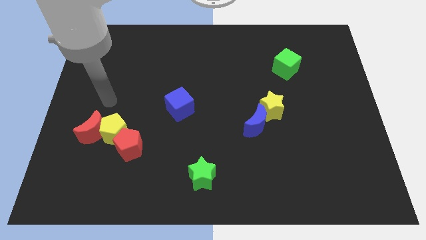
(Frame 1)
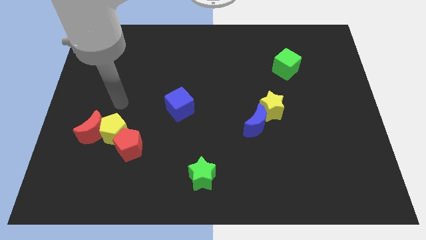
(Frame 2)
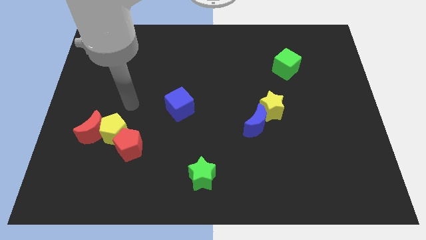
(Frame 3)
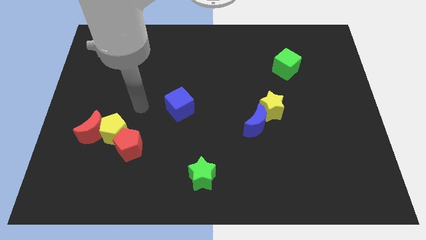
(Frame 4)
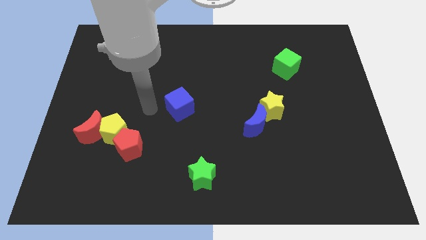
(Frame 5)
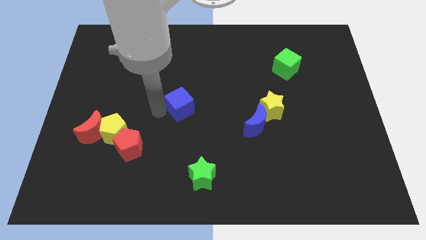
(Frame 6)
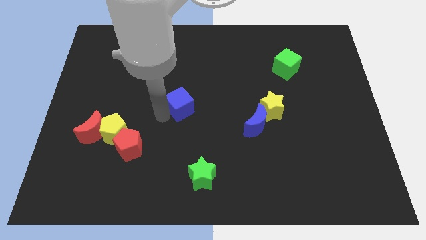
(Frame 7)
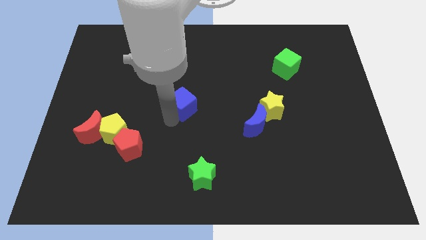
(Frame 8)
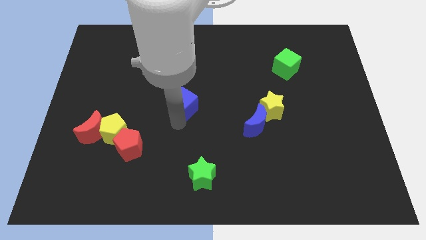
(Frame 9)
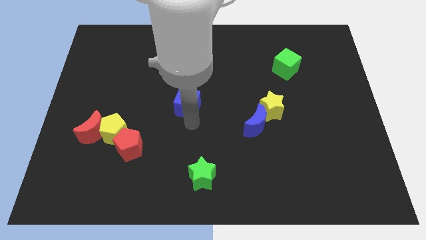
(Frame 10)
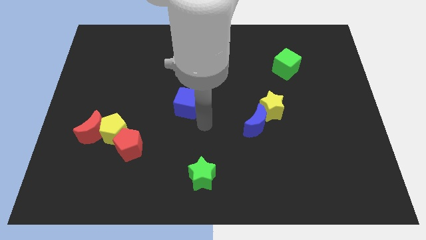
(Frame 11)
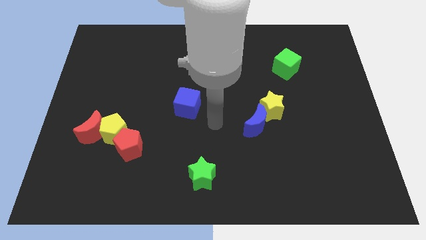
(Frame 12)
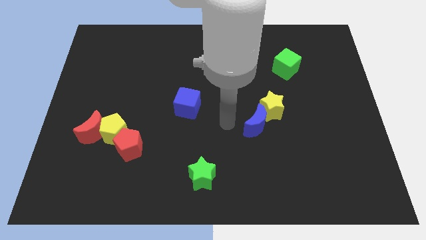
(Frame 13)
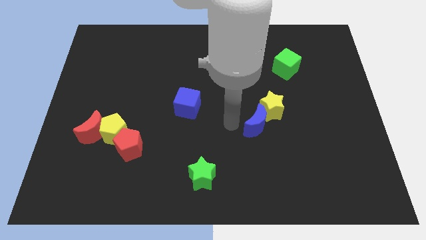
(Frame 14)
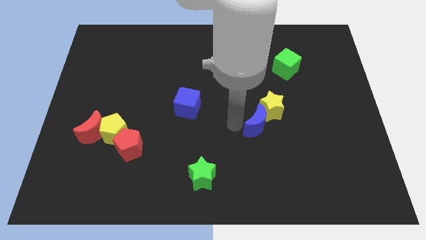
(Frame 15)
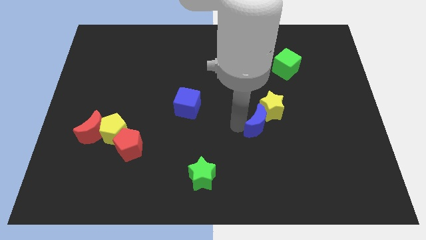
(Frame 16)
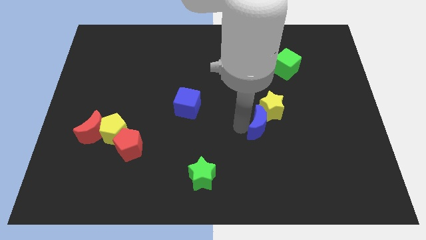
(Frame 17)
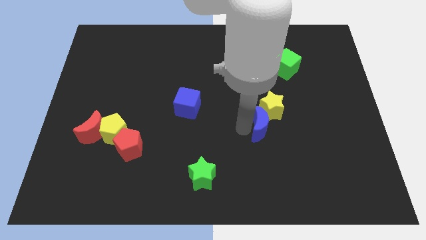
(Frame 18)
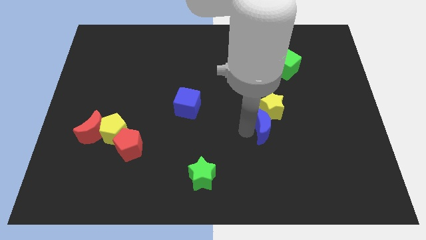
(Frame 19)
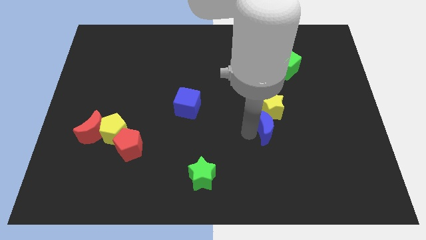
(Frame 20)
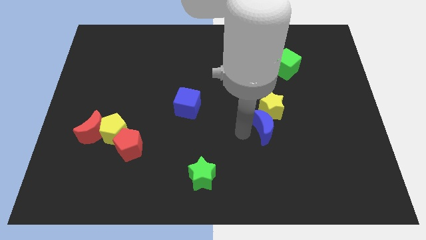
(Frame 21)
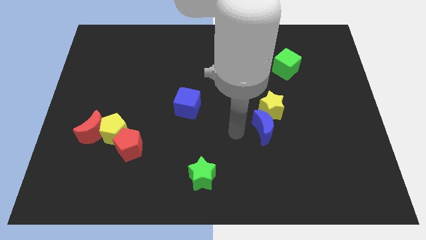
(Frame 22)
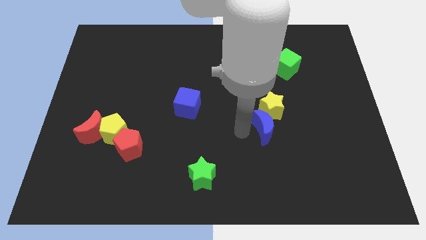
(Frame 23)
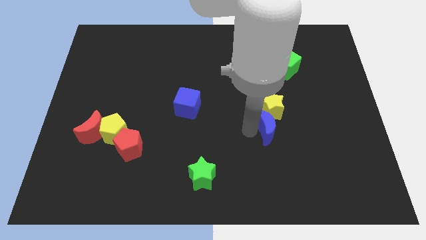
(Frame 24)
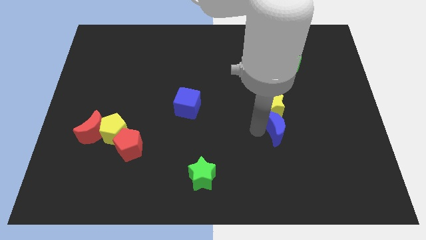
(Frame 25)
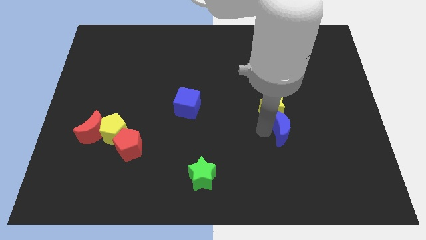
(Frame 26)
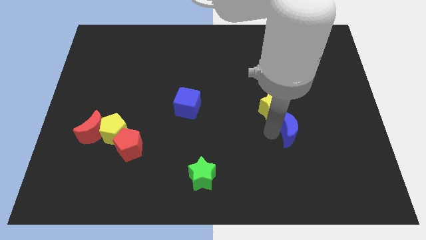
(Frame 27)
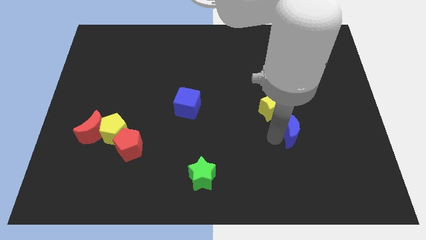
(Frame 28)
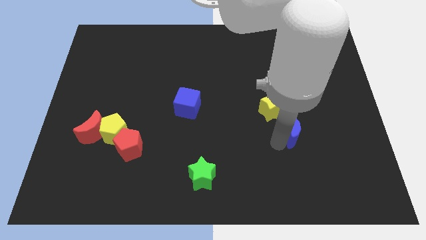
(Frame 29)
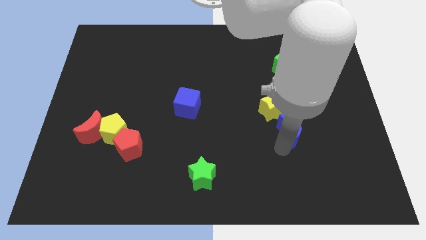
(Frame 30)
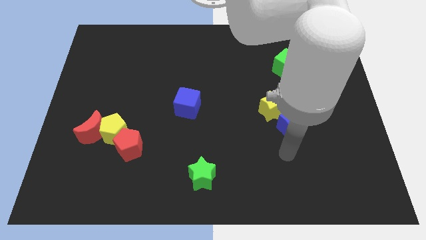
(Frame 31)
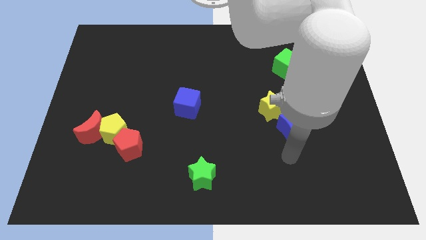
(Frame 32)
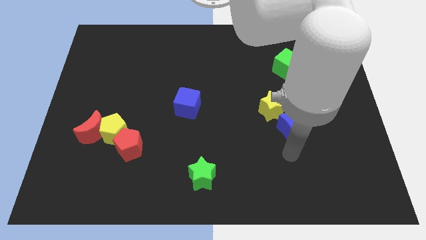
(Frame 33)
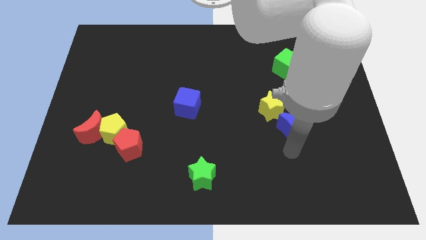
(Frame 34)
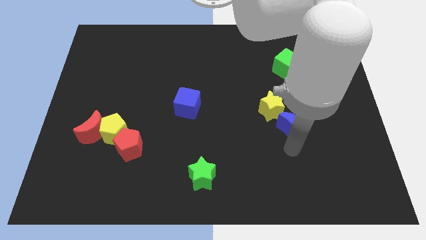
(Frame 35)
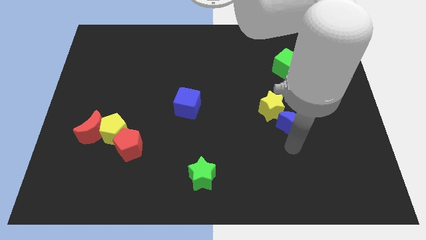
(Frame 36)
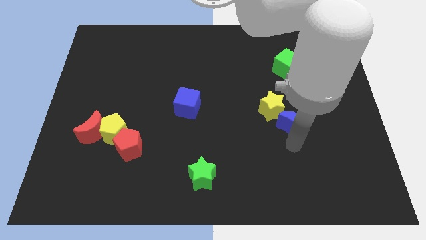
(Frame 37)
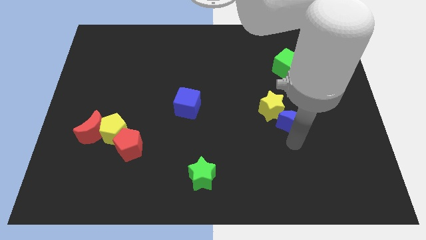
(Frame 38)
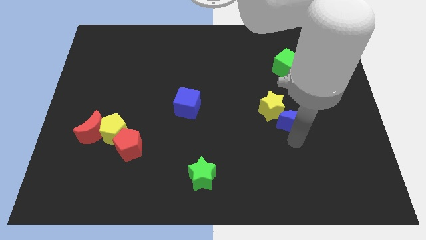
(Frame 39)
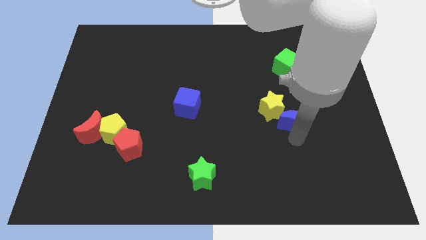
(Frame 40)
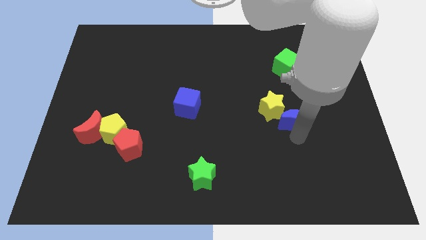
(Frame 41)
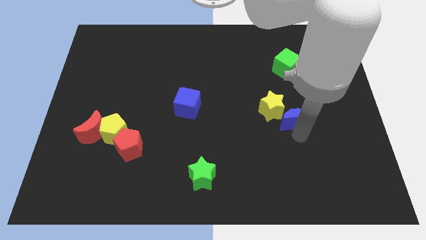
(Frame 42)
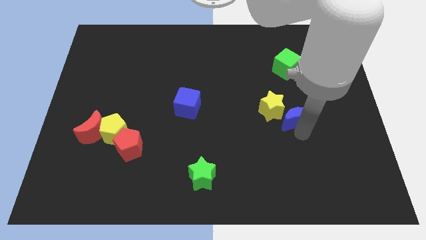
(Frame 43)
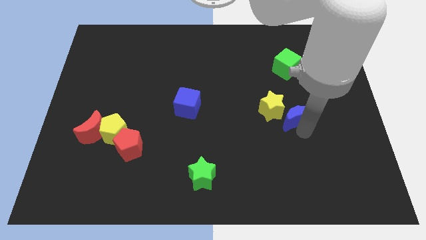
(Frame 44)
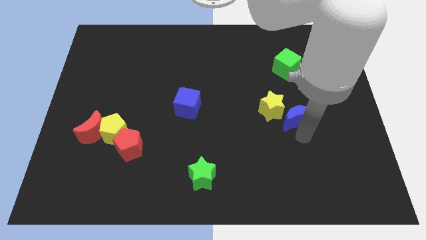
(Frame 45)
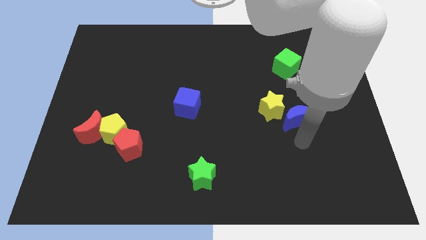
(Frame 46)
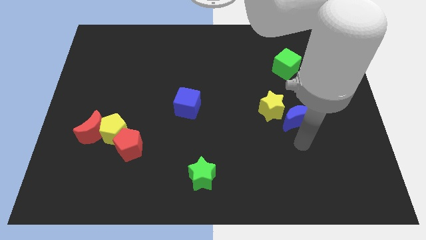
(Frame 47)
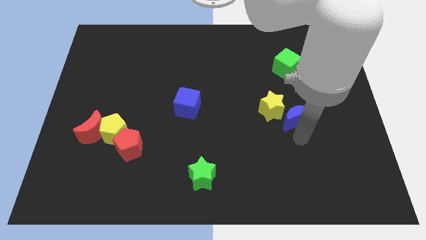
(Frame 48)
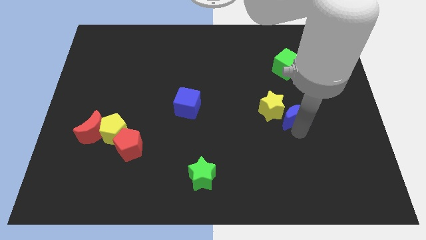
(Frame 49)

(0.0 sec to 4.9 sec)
put the blue moon to the bottom of the green cube

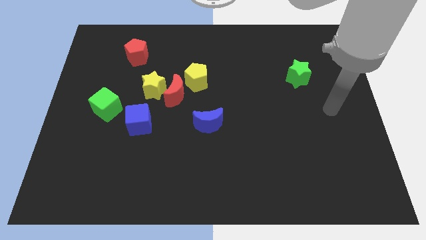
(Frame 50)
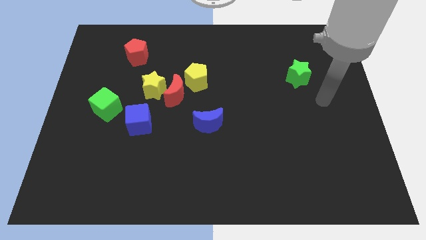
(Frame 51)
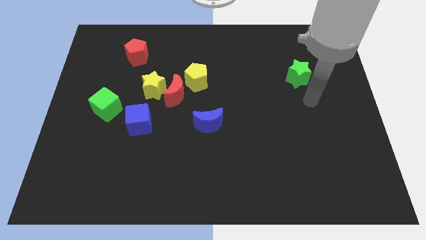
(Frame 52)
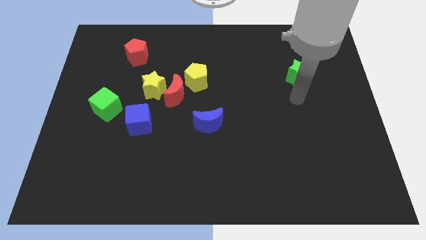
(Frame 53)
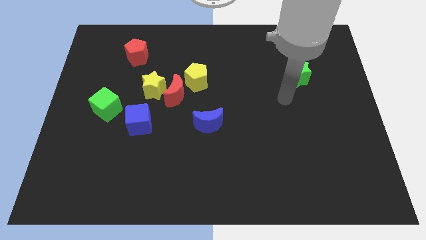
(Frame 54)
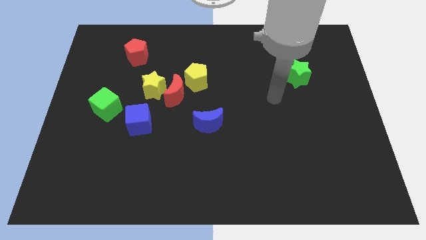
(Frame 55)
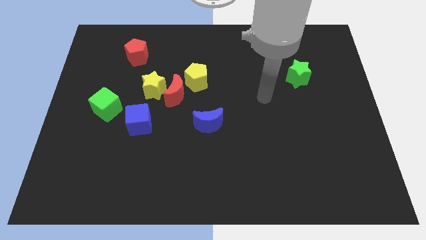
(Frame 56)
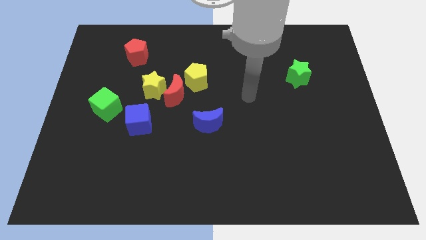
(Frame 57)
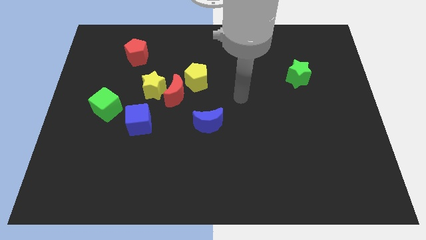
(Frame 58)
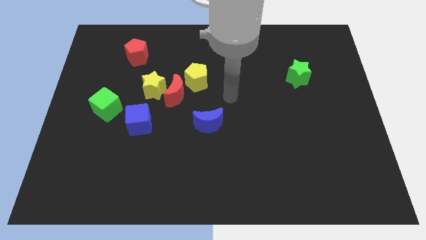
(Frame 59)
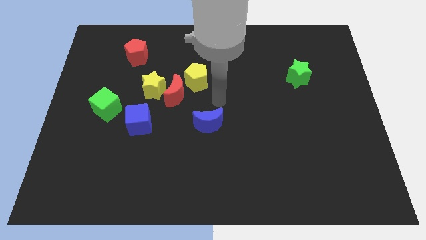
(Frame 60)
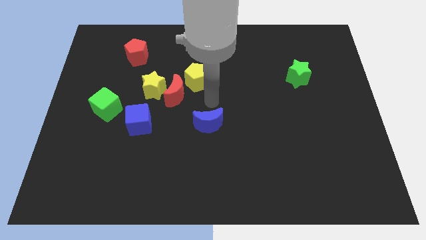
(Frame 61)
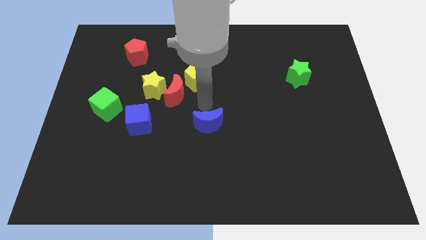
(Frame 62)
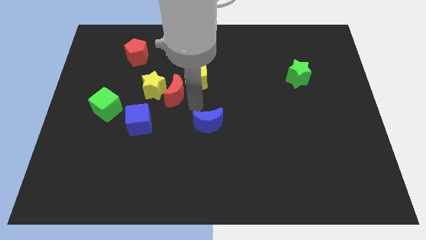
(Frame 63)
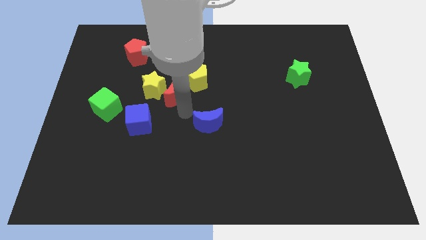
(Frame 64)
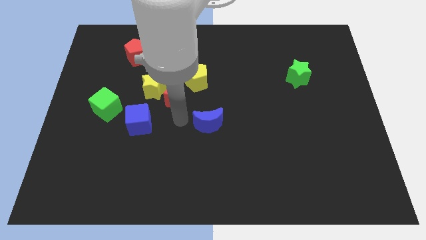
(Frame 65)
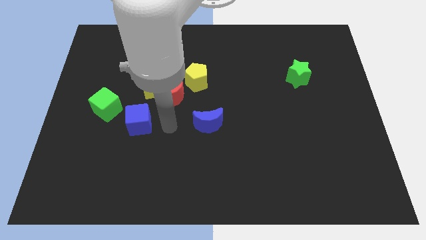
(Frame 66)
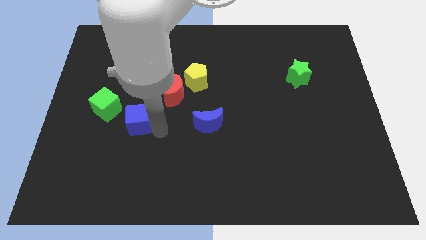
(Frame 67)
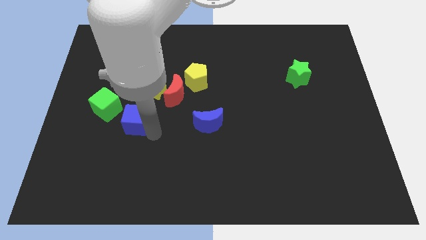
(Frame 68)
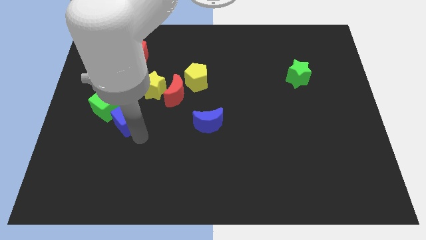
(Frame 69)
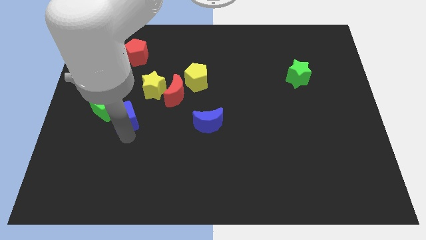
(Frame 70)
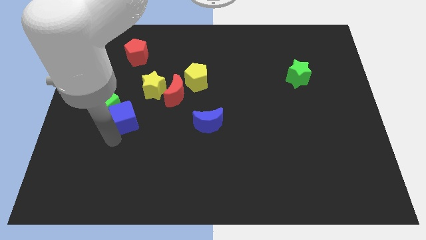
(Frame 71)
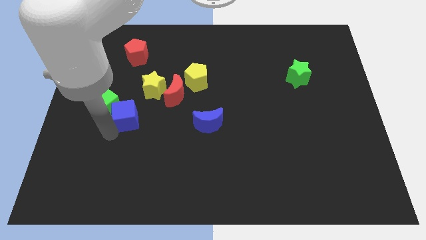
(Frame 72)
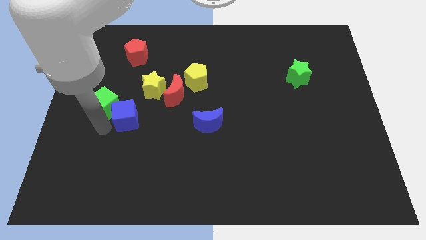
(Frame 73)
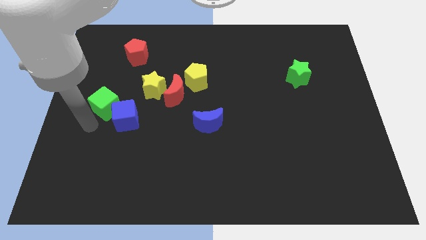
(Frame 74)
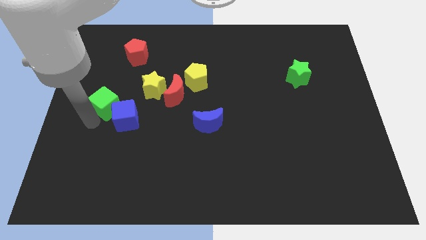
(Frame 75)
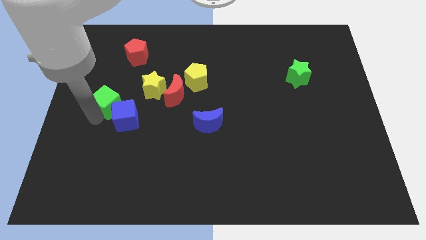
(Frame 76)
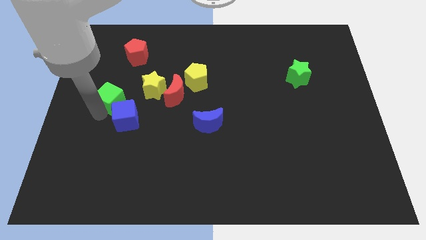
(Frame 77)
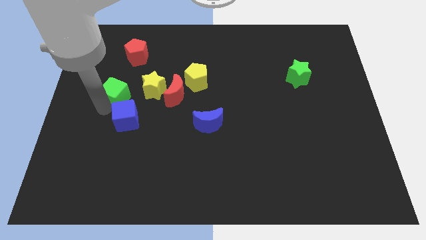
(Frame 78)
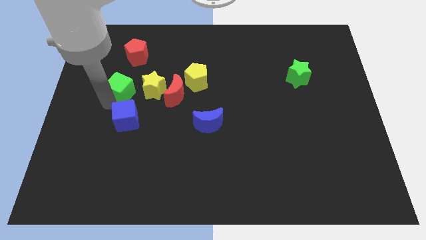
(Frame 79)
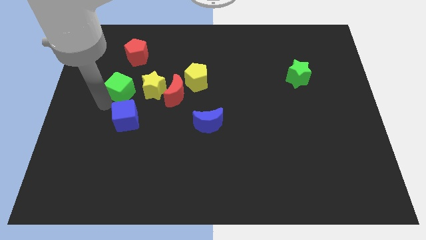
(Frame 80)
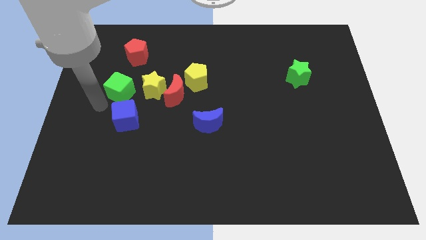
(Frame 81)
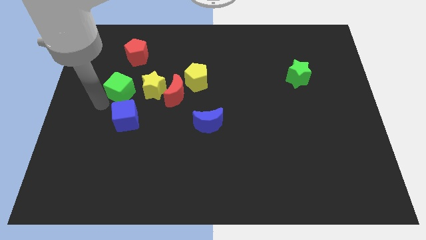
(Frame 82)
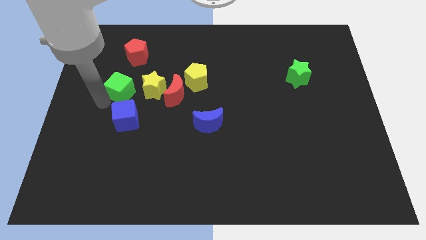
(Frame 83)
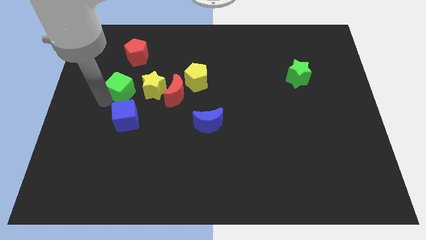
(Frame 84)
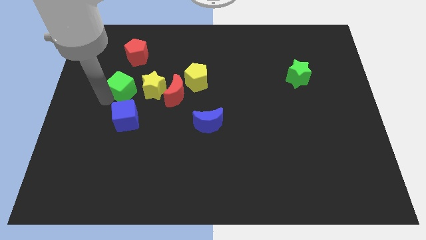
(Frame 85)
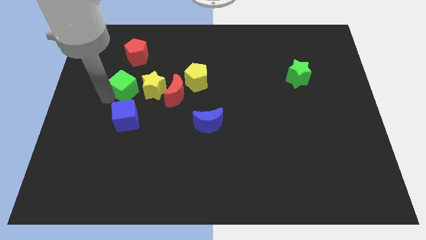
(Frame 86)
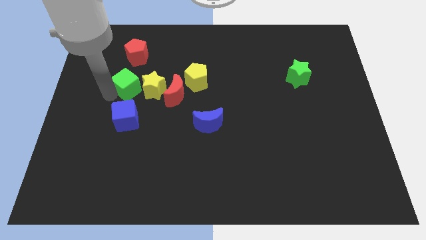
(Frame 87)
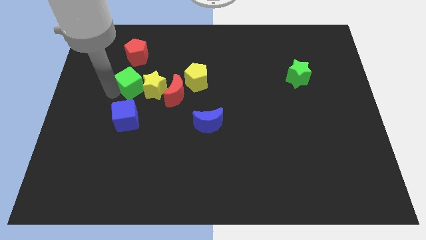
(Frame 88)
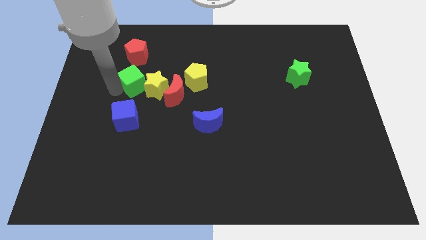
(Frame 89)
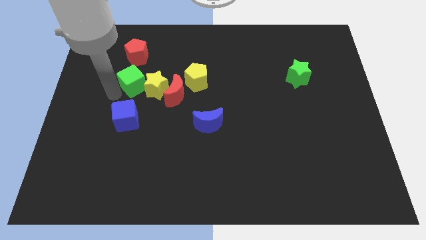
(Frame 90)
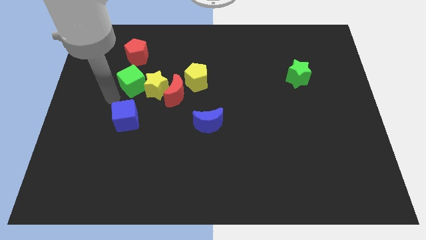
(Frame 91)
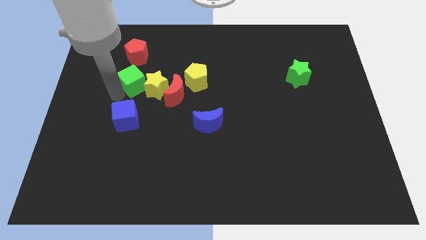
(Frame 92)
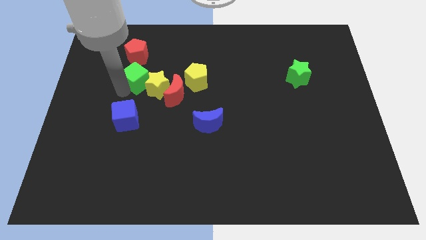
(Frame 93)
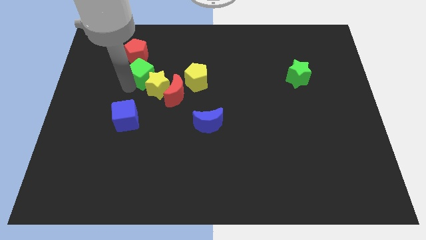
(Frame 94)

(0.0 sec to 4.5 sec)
put the green cube diagonally down and to the right of the red pentagon
